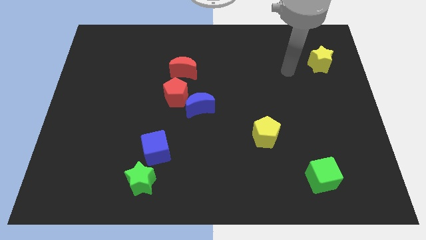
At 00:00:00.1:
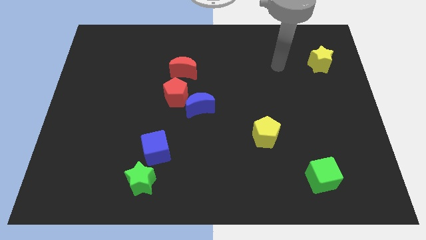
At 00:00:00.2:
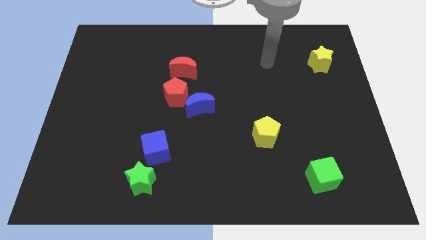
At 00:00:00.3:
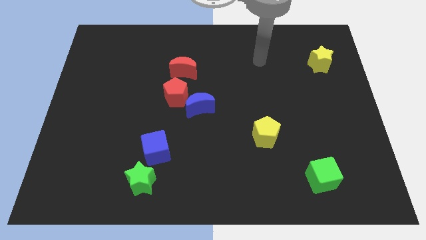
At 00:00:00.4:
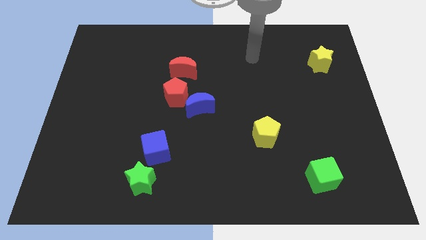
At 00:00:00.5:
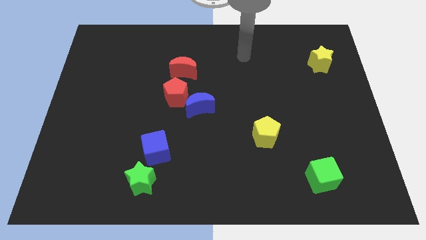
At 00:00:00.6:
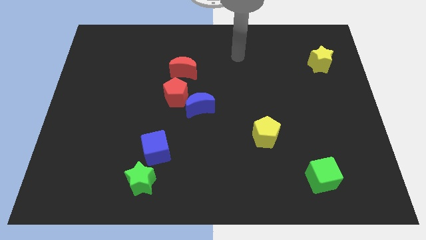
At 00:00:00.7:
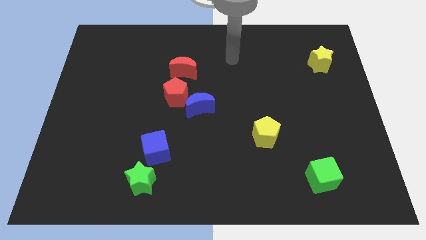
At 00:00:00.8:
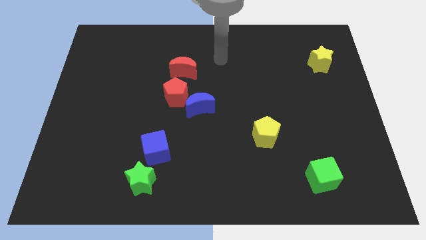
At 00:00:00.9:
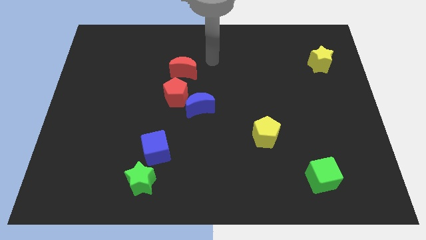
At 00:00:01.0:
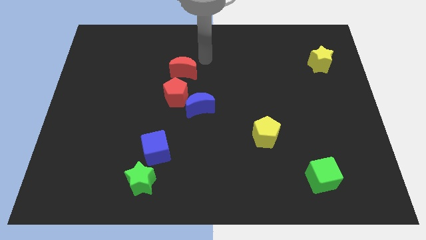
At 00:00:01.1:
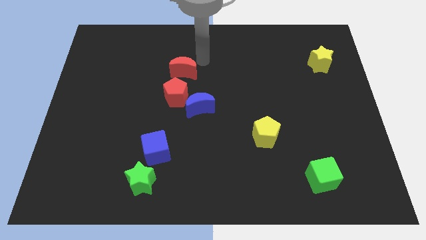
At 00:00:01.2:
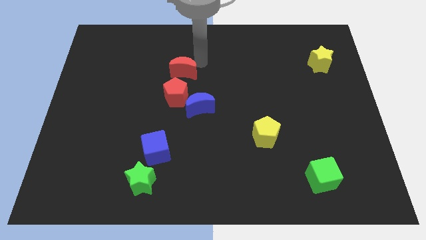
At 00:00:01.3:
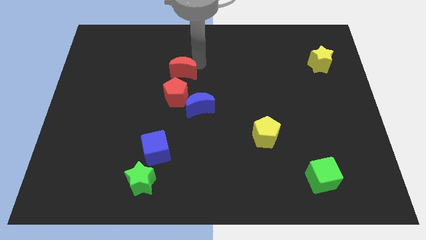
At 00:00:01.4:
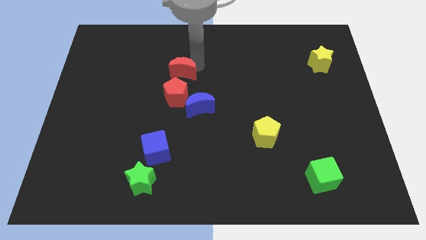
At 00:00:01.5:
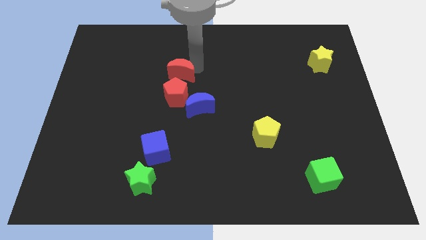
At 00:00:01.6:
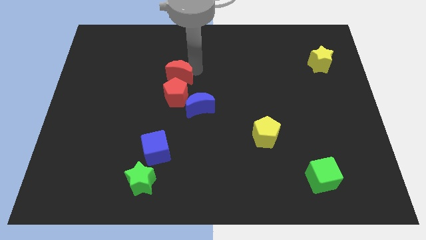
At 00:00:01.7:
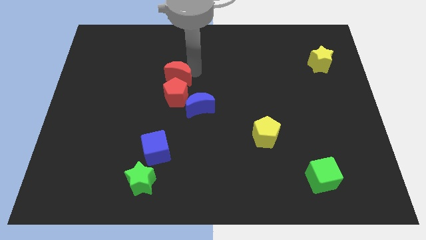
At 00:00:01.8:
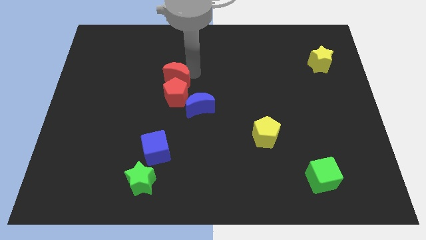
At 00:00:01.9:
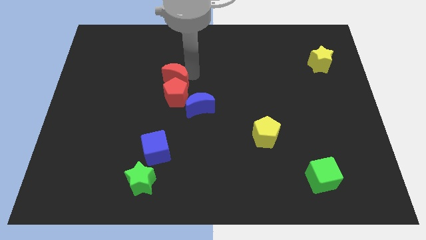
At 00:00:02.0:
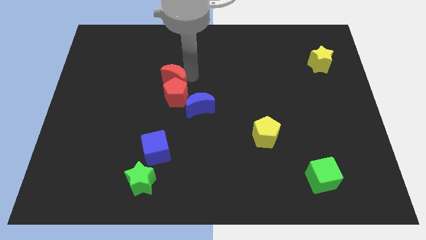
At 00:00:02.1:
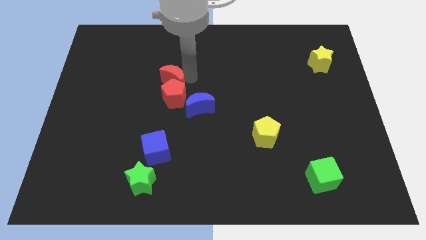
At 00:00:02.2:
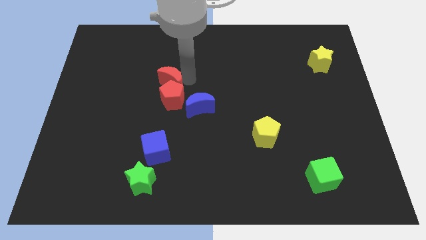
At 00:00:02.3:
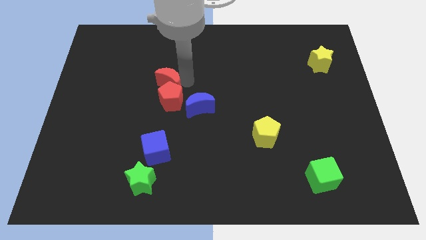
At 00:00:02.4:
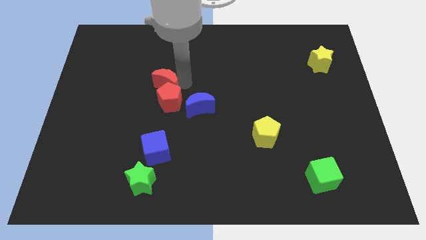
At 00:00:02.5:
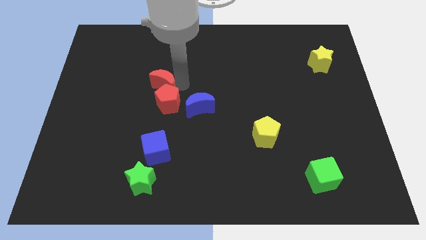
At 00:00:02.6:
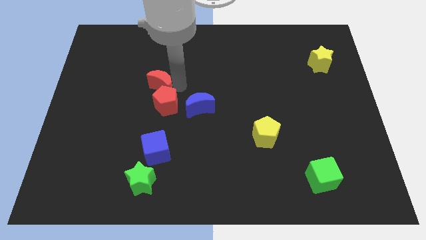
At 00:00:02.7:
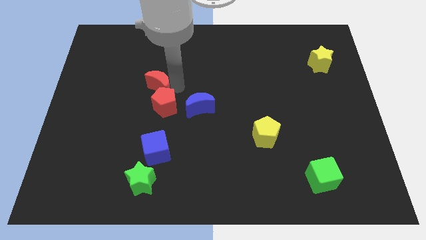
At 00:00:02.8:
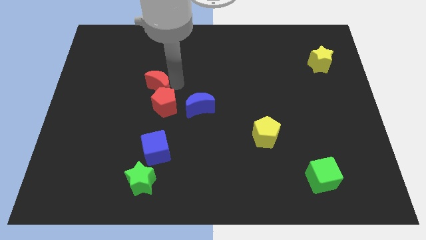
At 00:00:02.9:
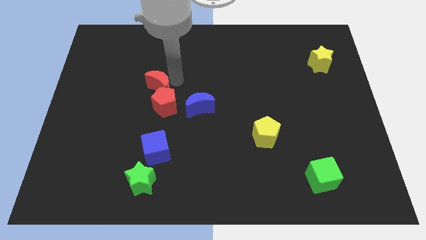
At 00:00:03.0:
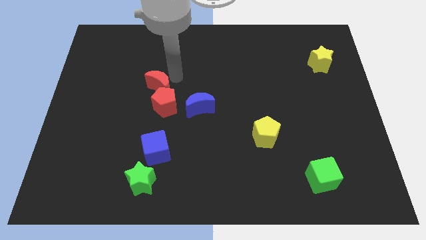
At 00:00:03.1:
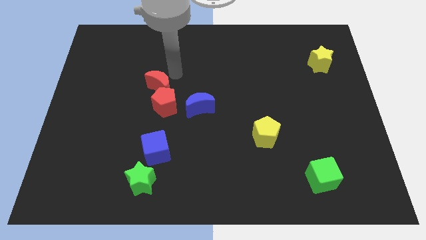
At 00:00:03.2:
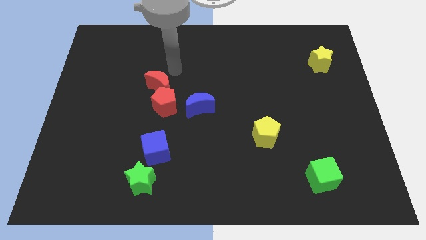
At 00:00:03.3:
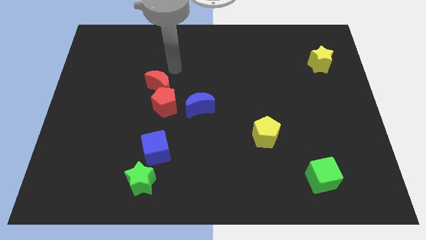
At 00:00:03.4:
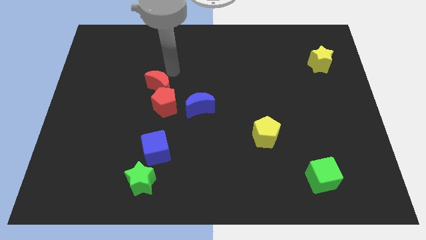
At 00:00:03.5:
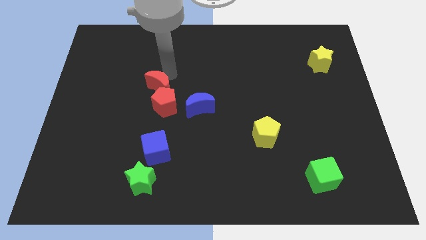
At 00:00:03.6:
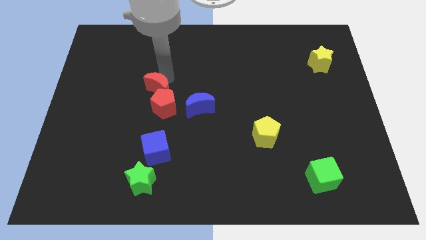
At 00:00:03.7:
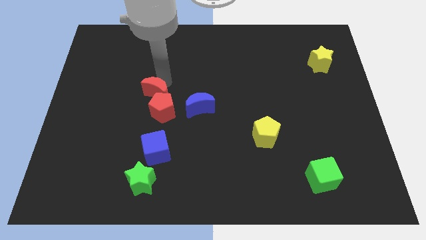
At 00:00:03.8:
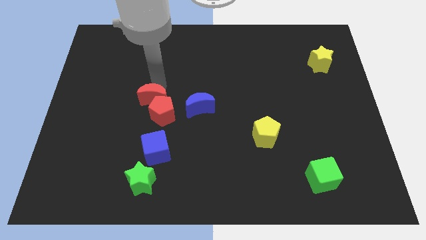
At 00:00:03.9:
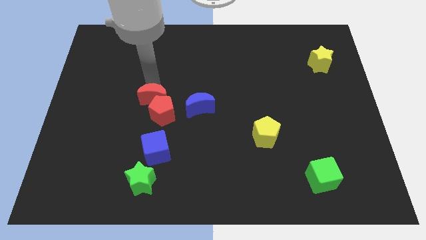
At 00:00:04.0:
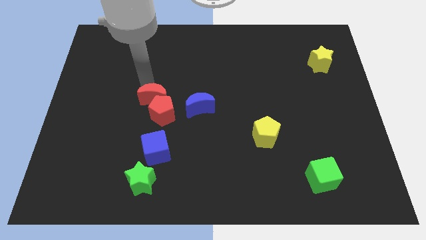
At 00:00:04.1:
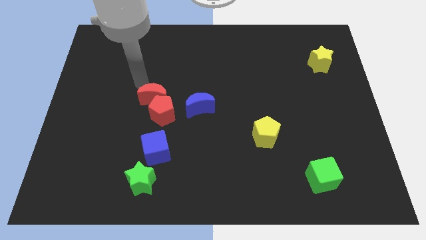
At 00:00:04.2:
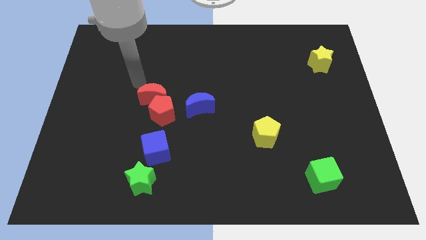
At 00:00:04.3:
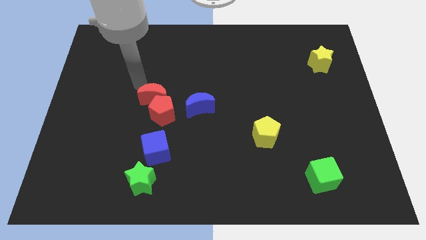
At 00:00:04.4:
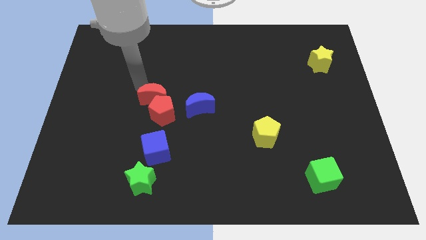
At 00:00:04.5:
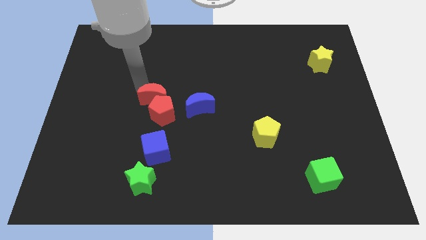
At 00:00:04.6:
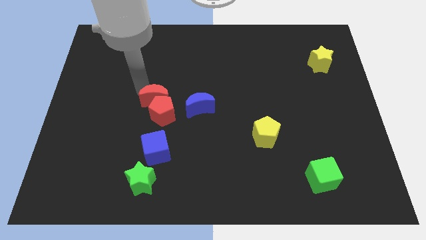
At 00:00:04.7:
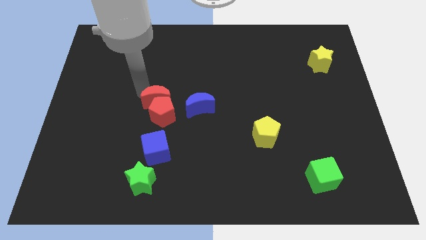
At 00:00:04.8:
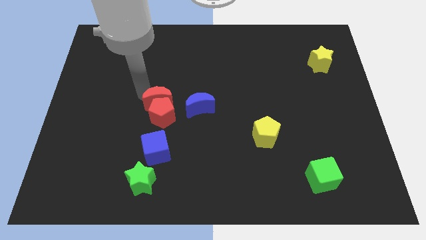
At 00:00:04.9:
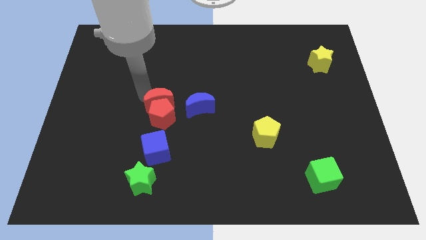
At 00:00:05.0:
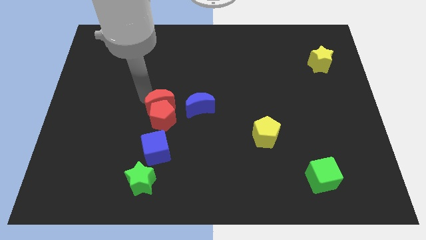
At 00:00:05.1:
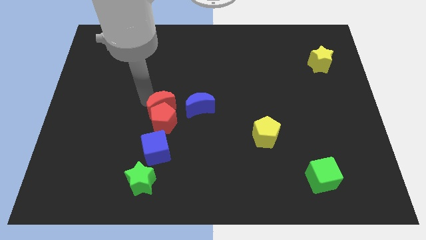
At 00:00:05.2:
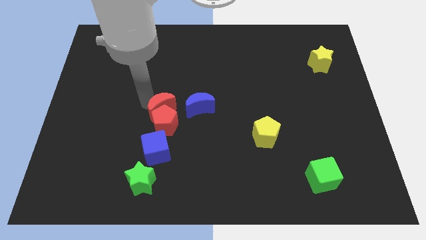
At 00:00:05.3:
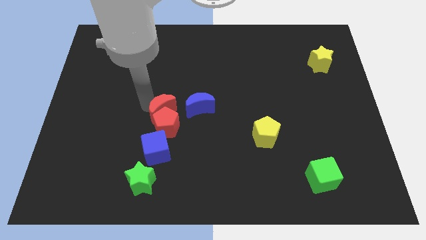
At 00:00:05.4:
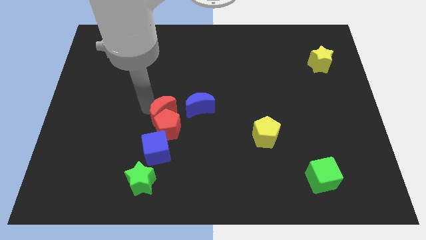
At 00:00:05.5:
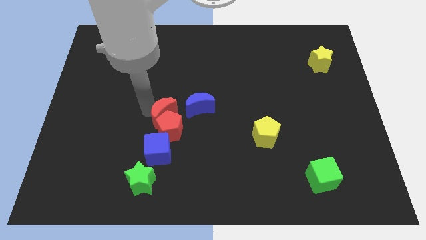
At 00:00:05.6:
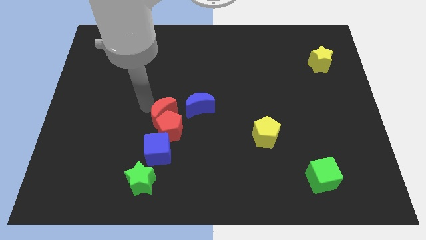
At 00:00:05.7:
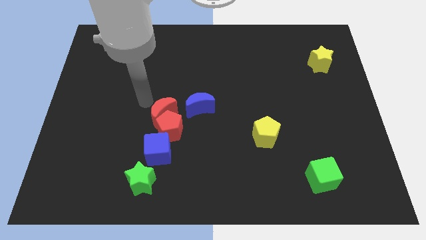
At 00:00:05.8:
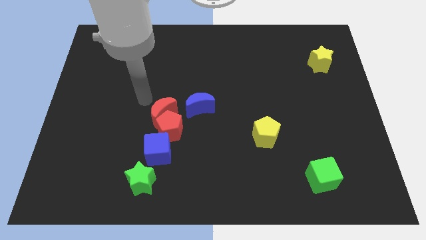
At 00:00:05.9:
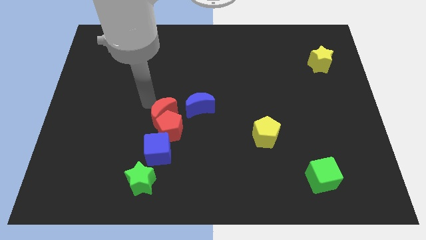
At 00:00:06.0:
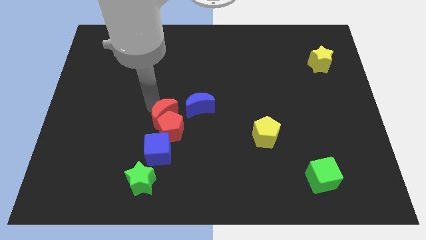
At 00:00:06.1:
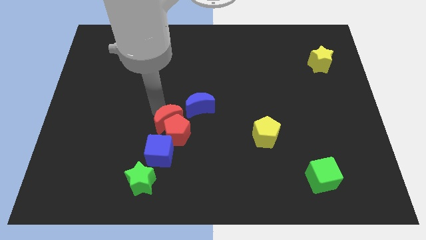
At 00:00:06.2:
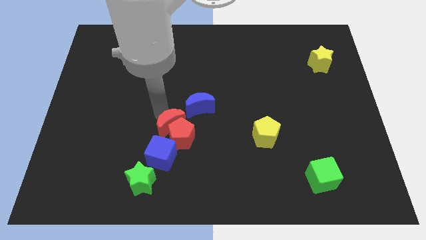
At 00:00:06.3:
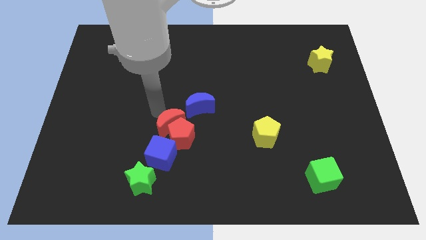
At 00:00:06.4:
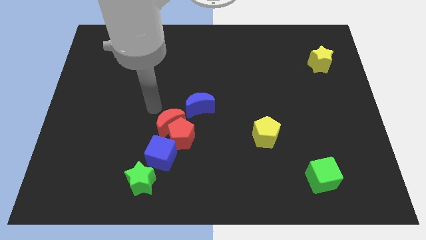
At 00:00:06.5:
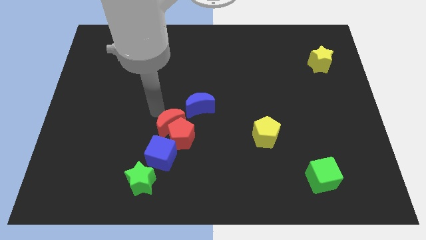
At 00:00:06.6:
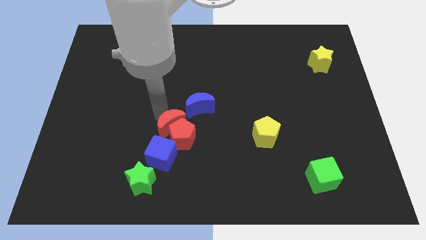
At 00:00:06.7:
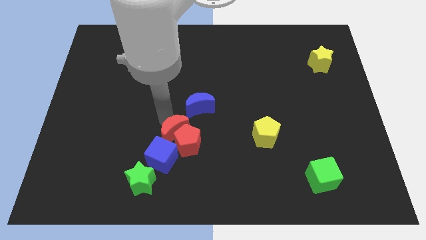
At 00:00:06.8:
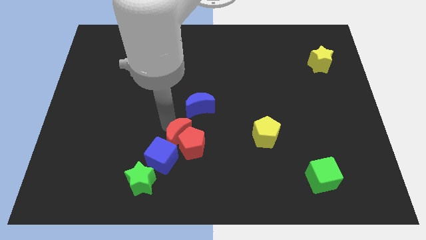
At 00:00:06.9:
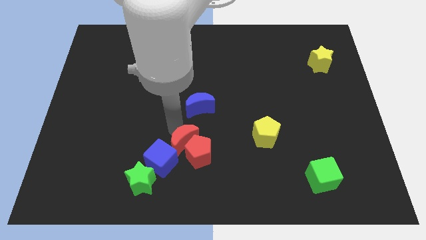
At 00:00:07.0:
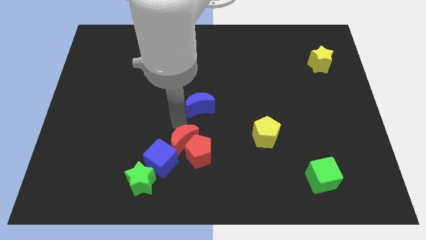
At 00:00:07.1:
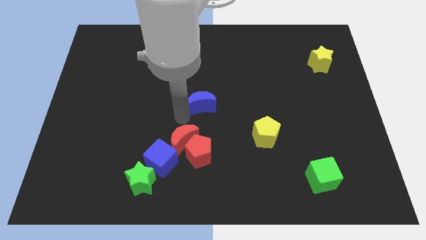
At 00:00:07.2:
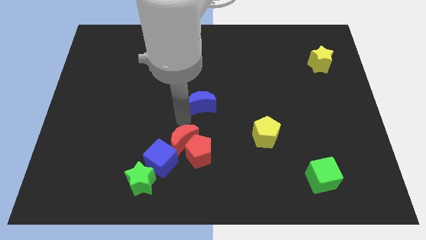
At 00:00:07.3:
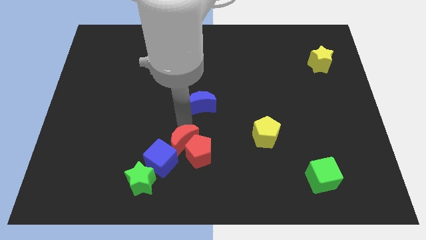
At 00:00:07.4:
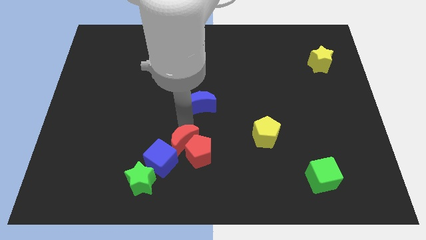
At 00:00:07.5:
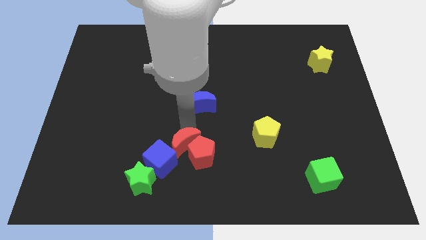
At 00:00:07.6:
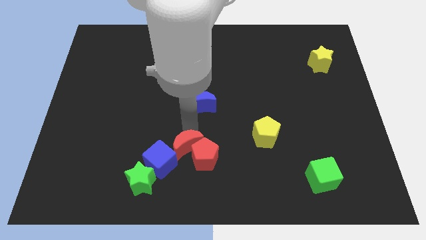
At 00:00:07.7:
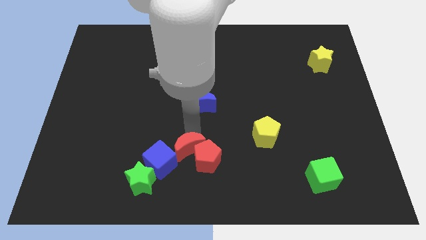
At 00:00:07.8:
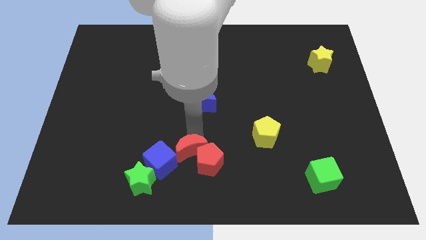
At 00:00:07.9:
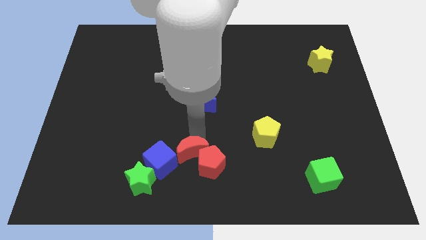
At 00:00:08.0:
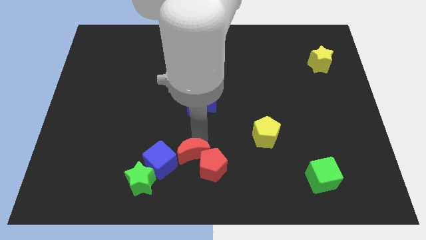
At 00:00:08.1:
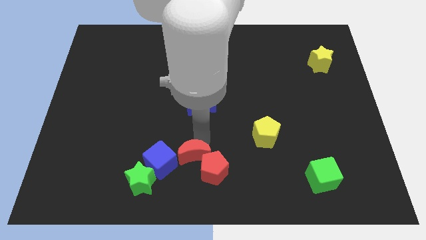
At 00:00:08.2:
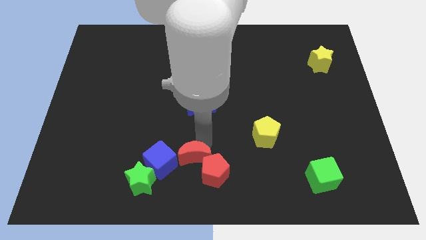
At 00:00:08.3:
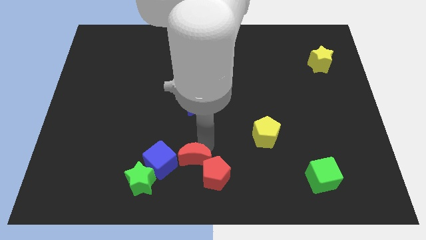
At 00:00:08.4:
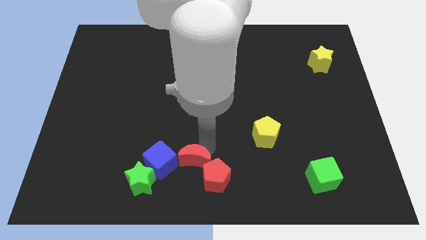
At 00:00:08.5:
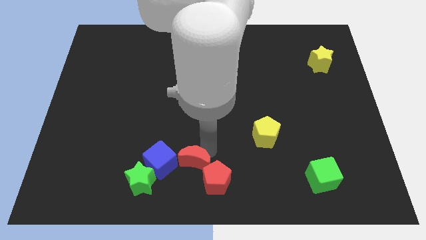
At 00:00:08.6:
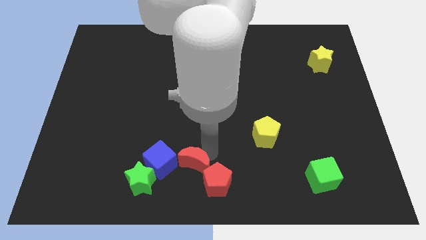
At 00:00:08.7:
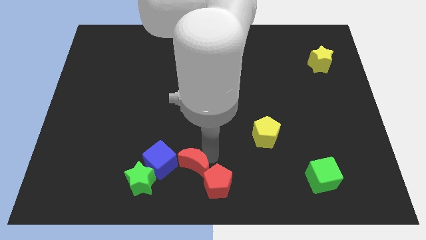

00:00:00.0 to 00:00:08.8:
put the red moon diagonally down and to the right of the blue cube
